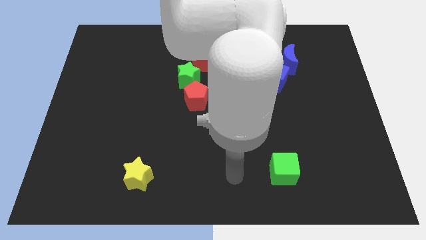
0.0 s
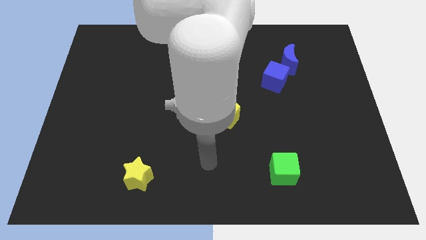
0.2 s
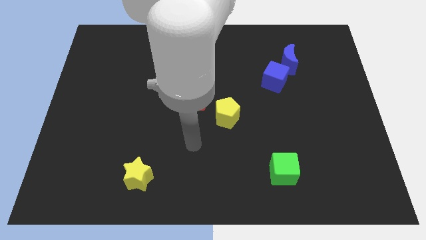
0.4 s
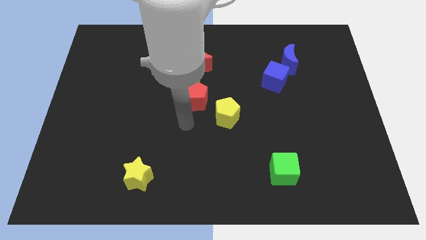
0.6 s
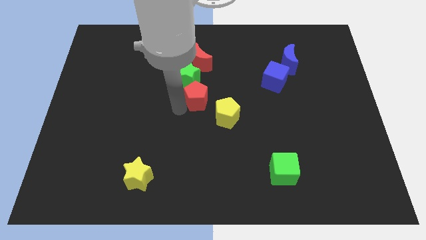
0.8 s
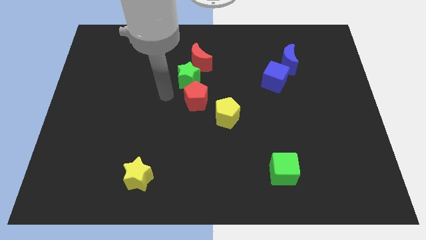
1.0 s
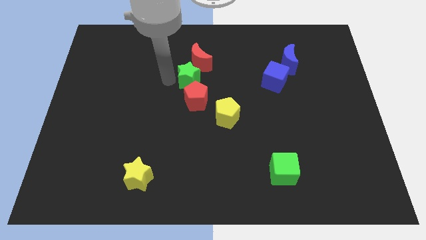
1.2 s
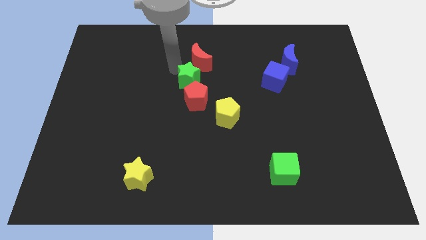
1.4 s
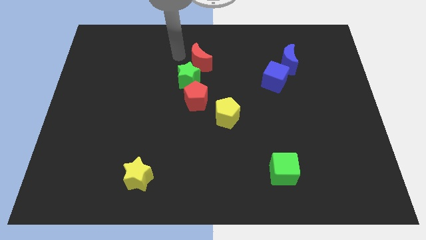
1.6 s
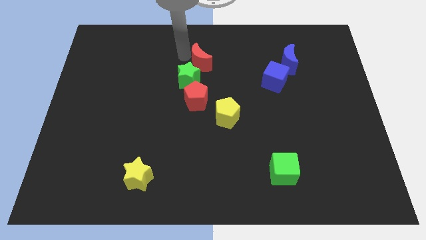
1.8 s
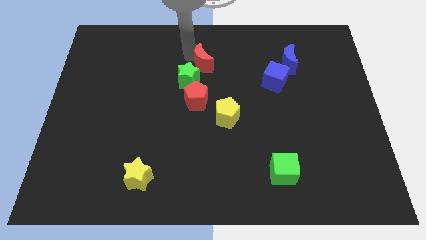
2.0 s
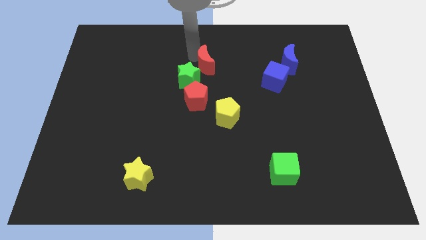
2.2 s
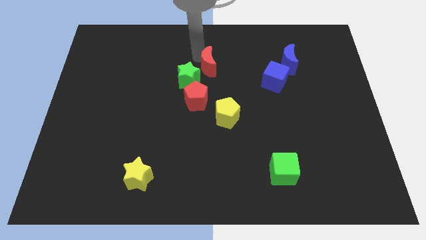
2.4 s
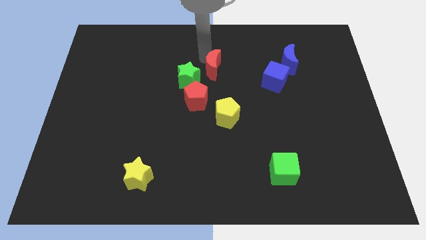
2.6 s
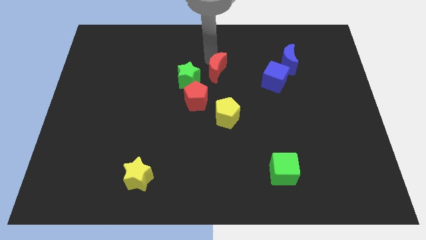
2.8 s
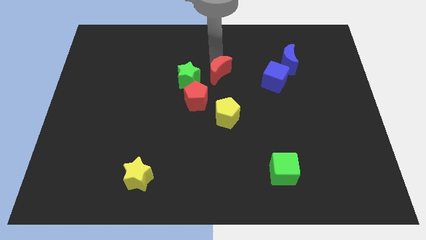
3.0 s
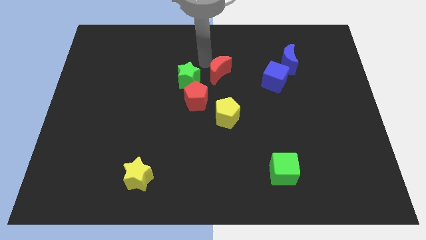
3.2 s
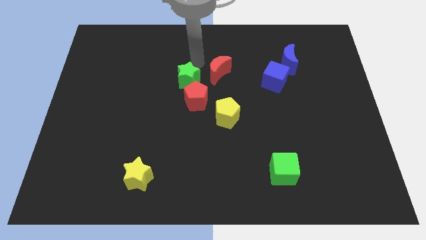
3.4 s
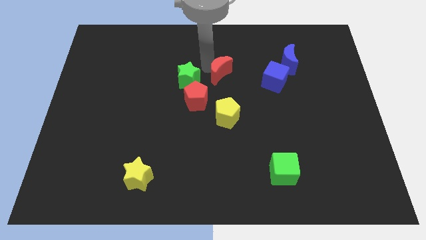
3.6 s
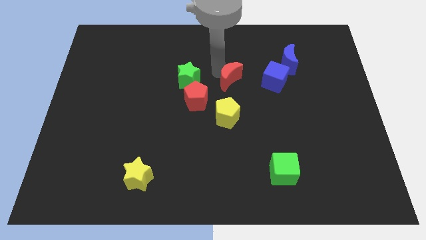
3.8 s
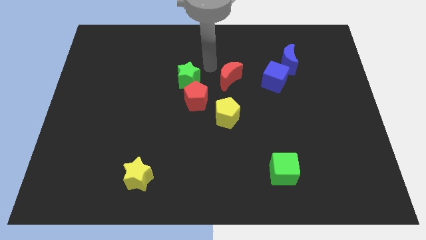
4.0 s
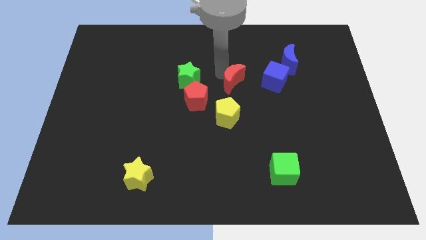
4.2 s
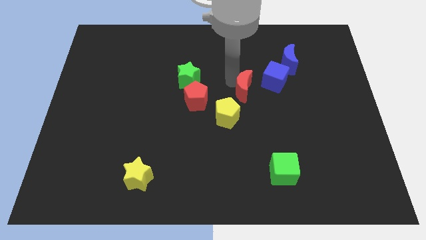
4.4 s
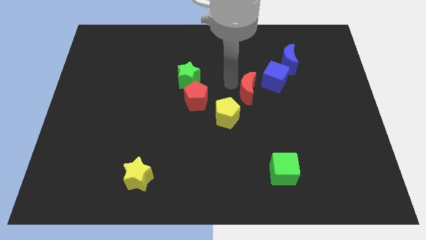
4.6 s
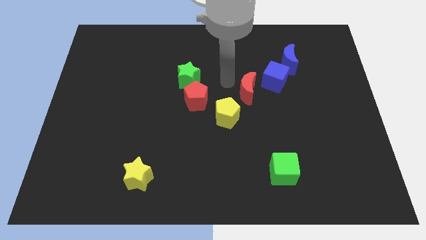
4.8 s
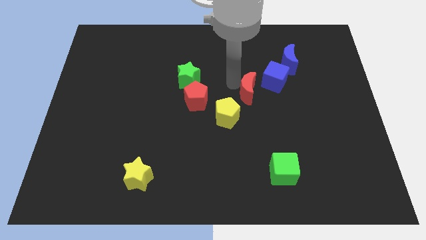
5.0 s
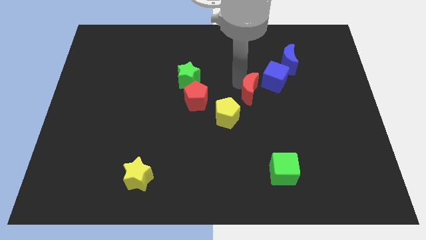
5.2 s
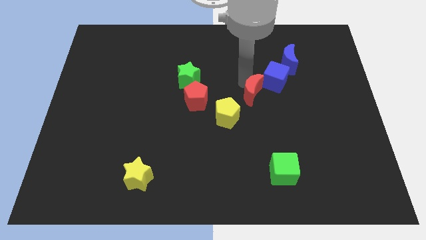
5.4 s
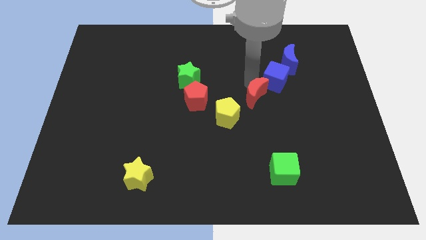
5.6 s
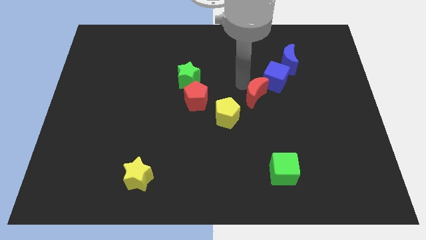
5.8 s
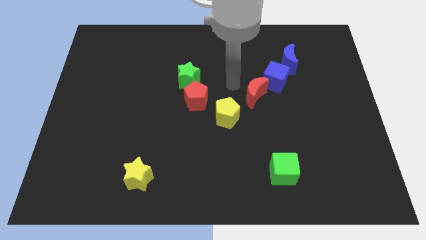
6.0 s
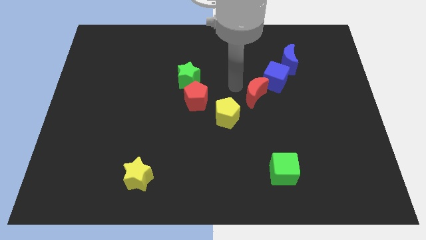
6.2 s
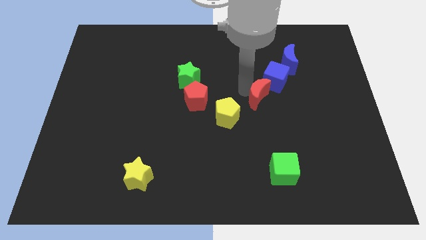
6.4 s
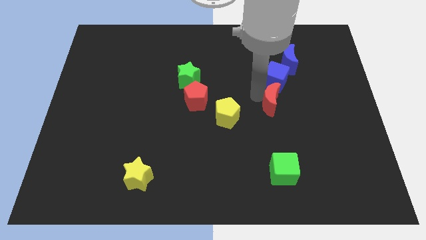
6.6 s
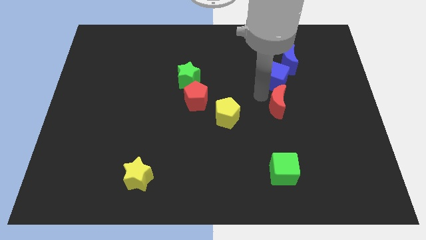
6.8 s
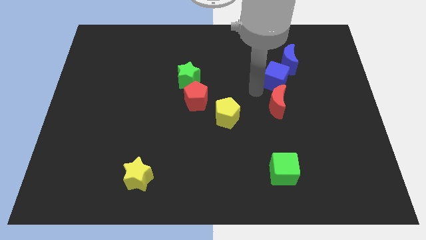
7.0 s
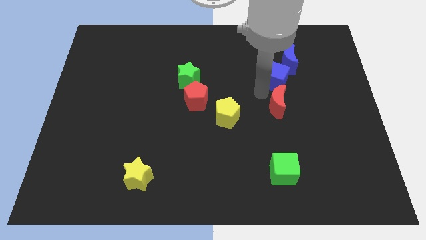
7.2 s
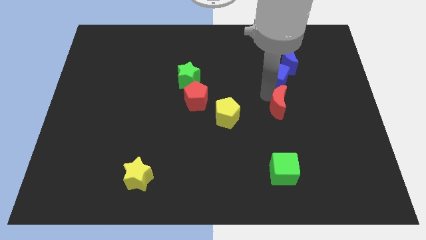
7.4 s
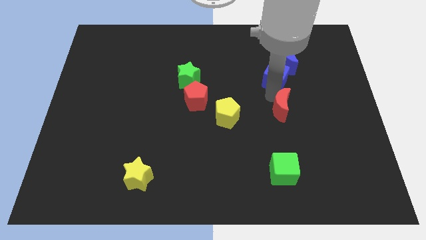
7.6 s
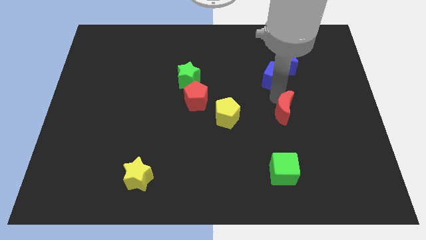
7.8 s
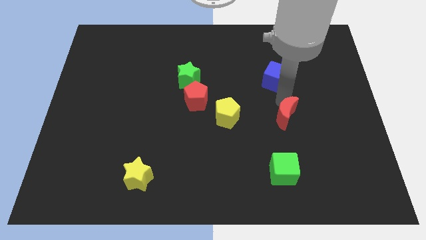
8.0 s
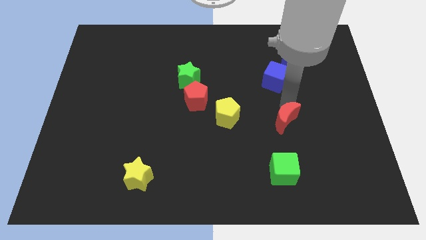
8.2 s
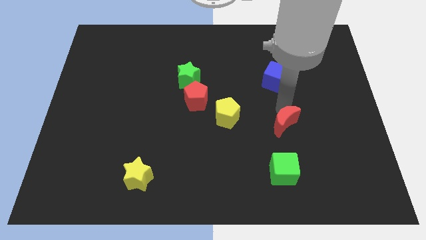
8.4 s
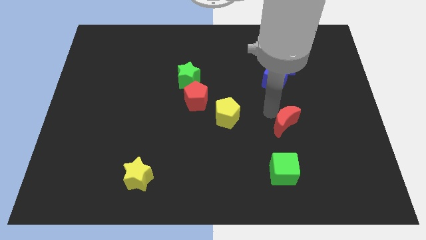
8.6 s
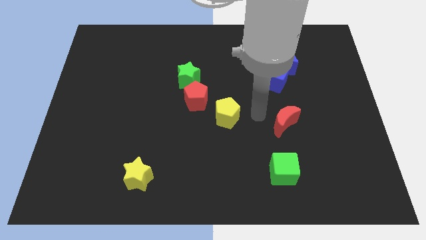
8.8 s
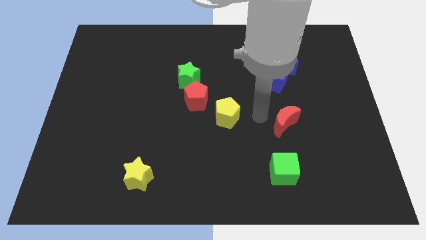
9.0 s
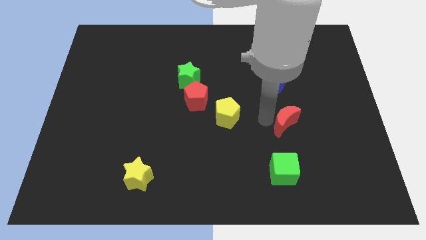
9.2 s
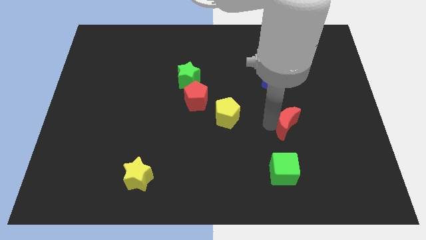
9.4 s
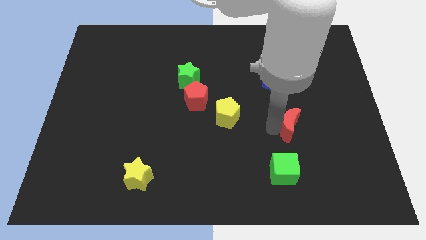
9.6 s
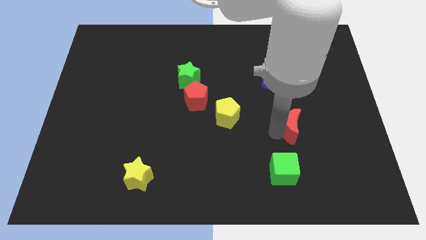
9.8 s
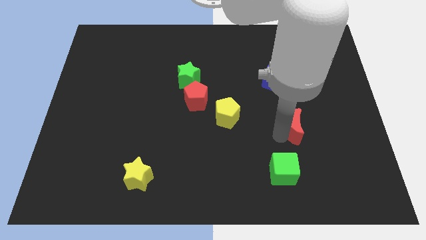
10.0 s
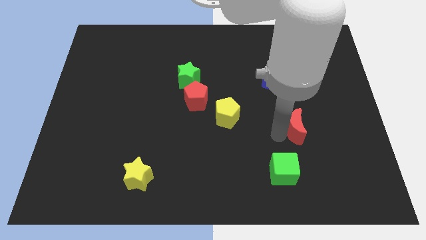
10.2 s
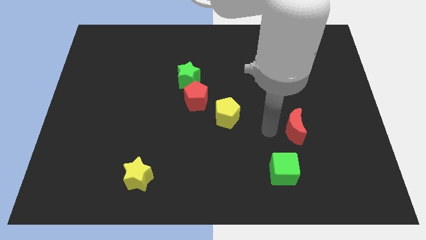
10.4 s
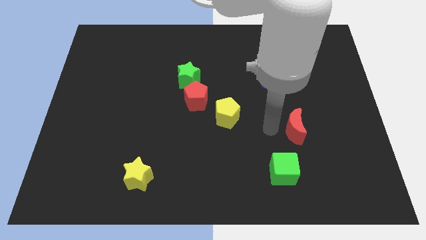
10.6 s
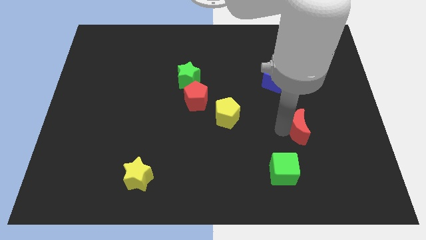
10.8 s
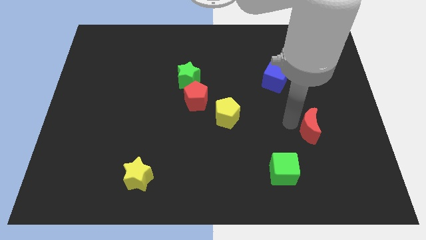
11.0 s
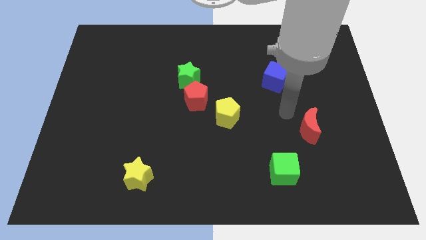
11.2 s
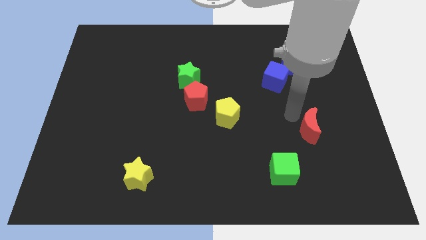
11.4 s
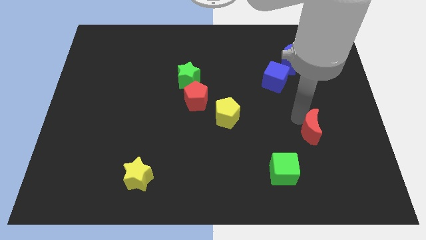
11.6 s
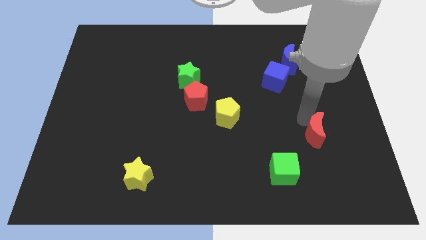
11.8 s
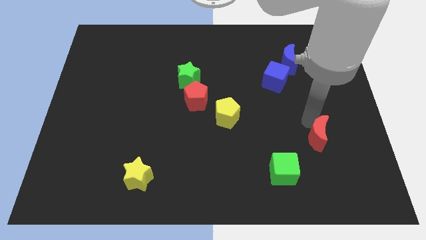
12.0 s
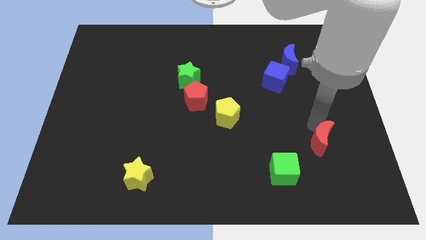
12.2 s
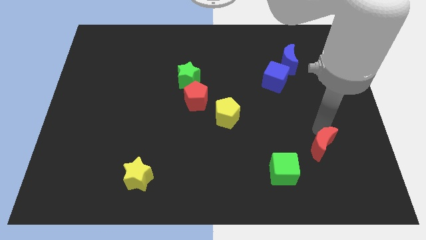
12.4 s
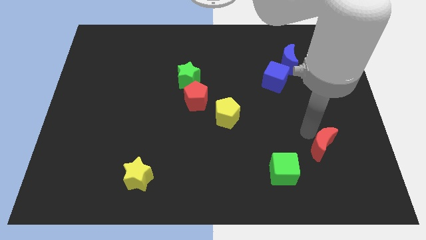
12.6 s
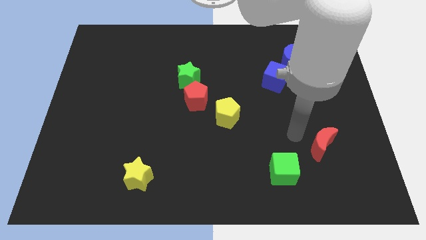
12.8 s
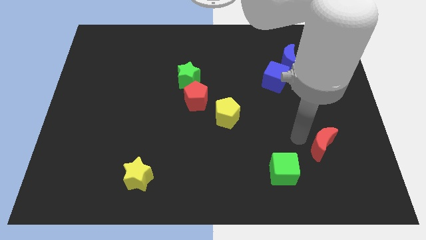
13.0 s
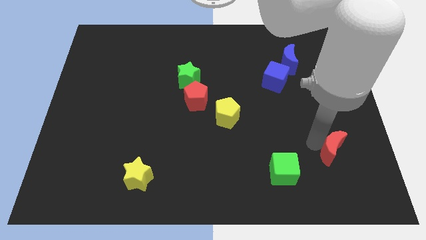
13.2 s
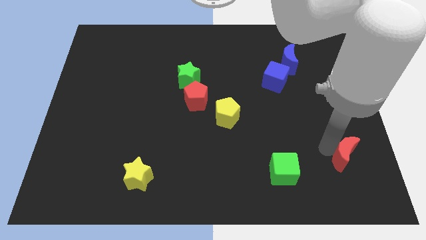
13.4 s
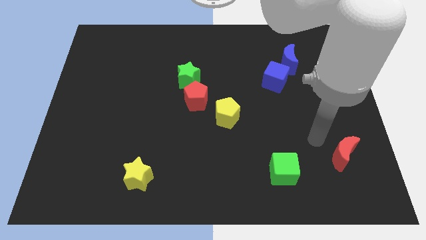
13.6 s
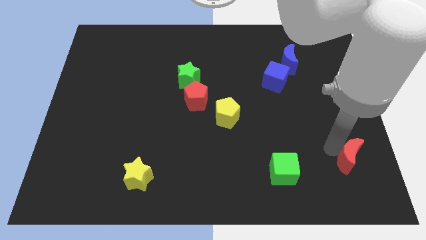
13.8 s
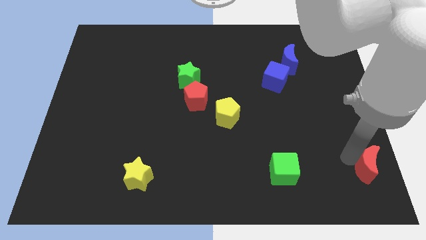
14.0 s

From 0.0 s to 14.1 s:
put the red moon to the lower right corner
